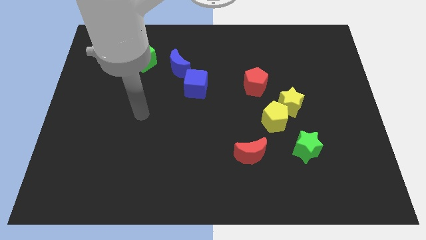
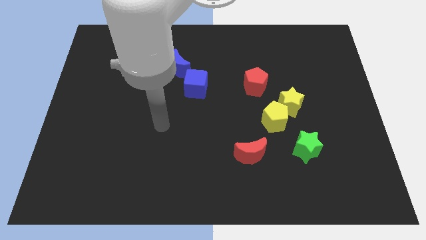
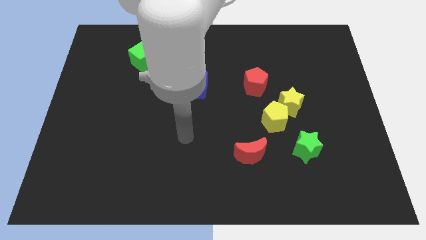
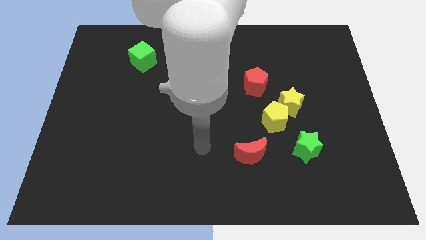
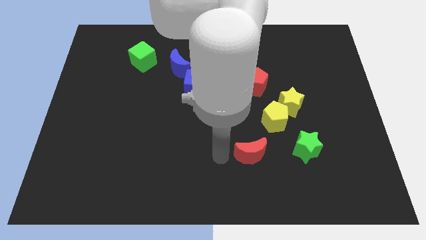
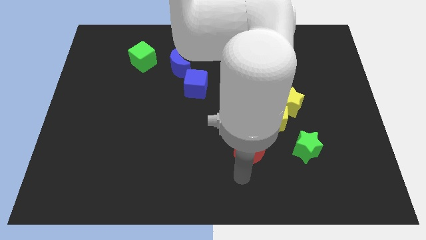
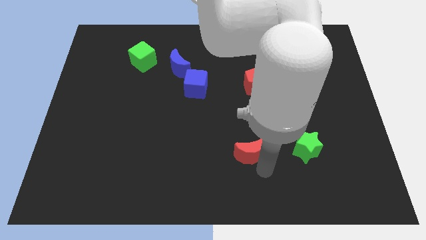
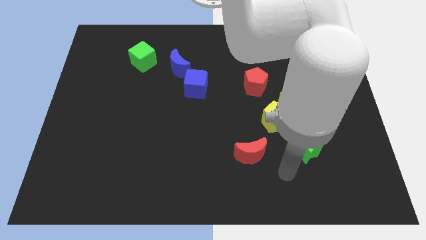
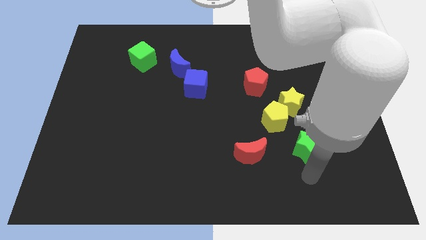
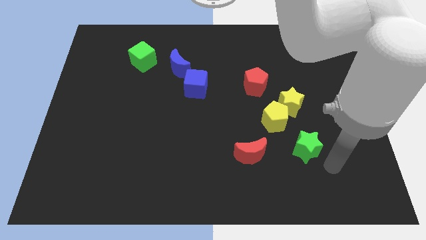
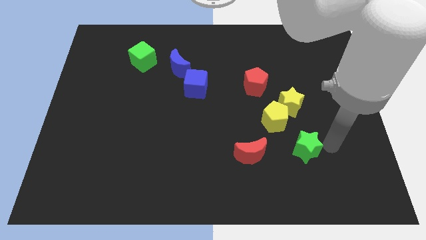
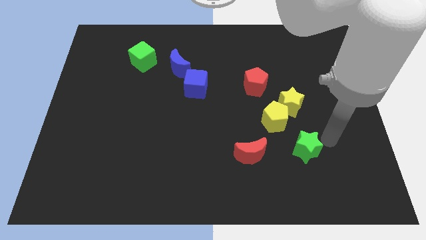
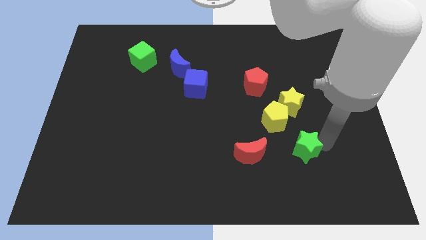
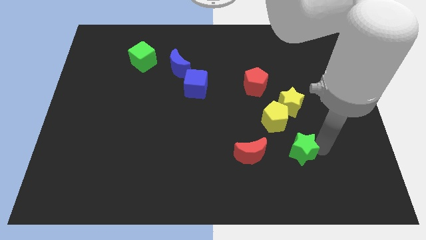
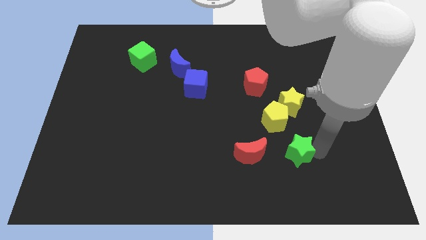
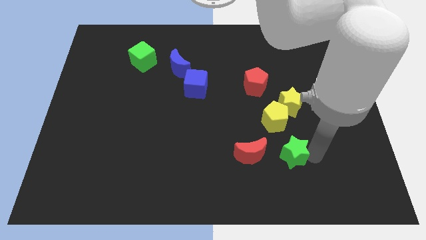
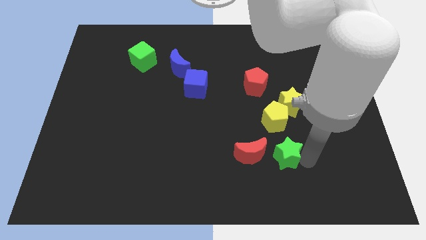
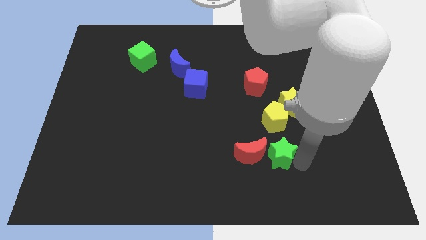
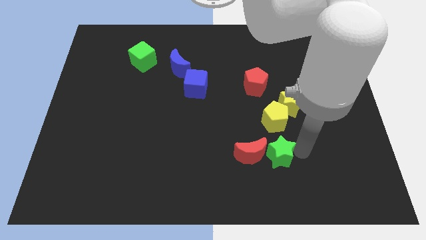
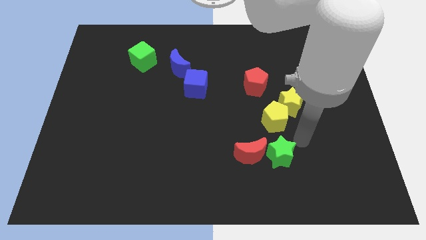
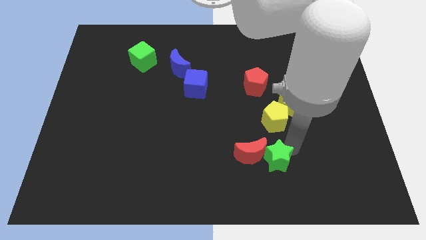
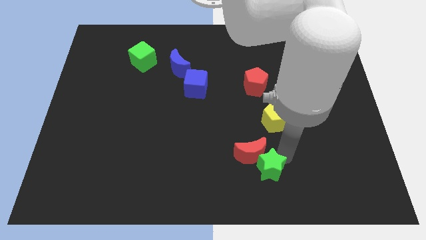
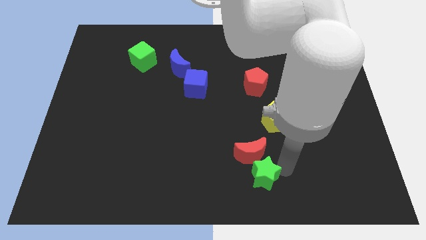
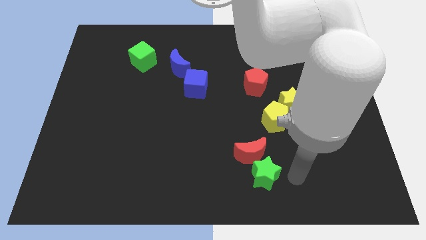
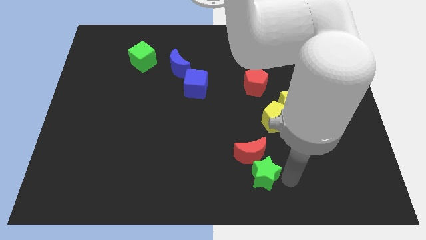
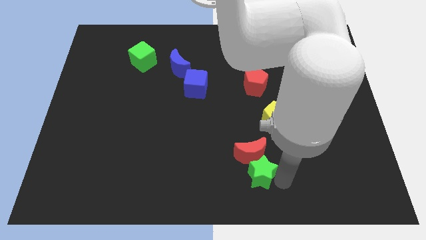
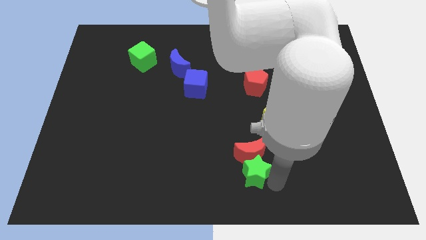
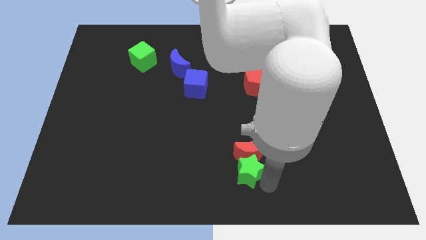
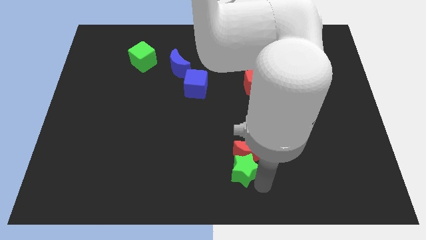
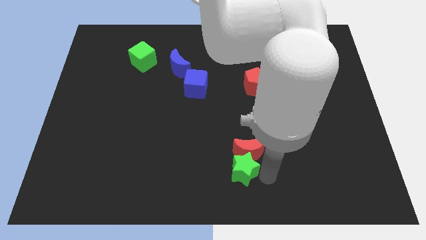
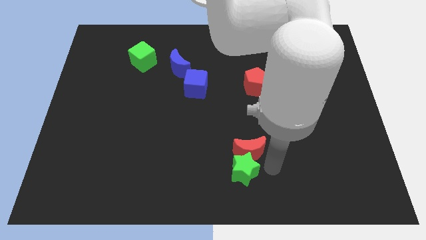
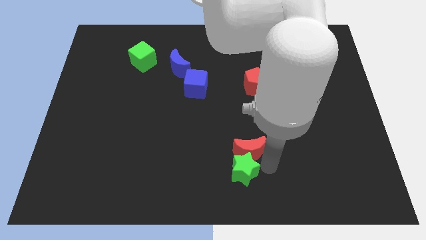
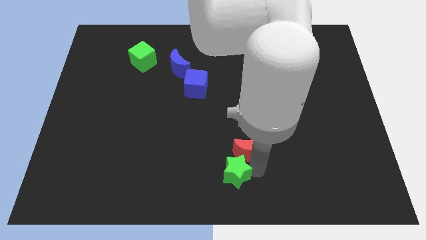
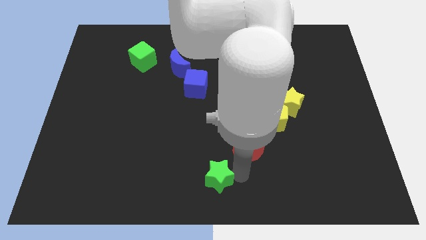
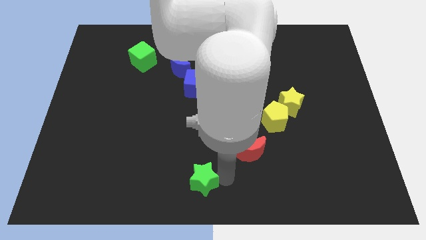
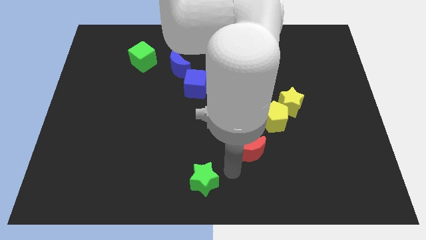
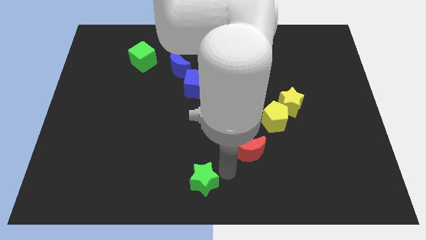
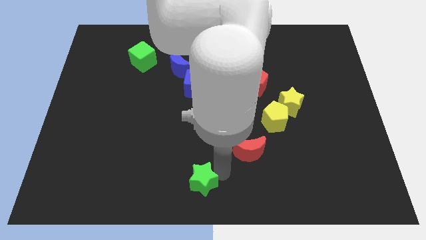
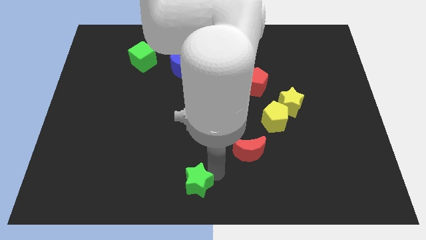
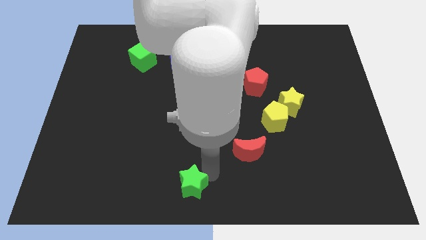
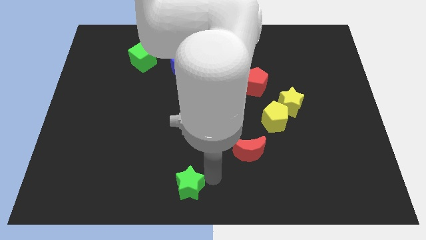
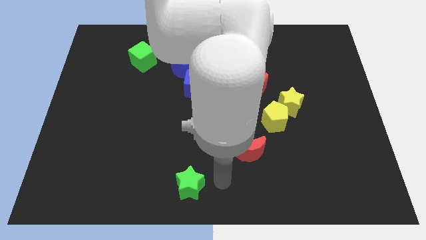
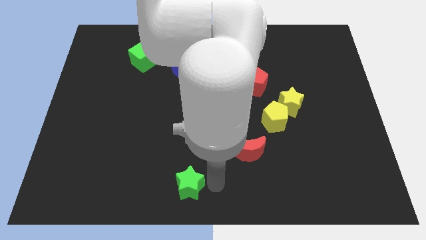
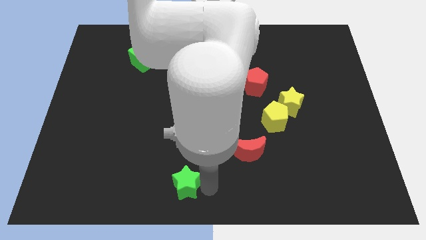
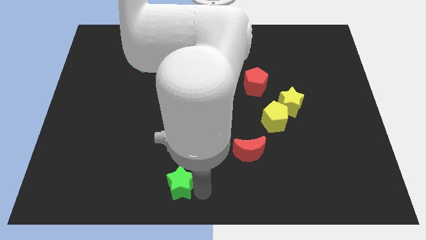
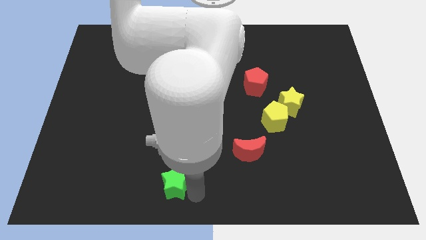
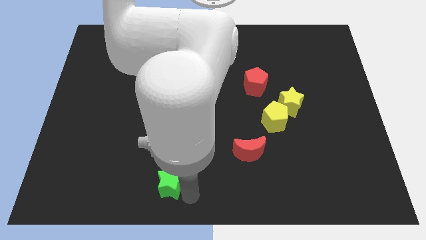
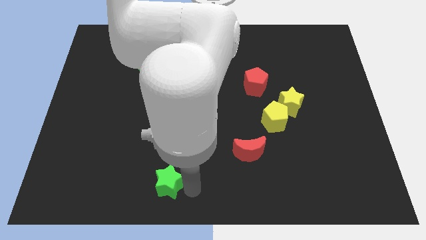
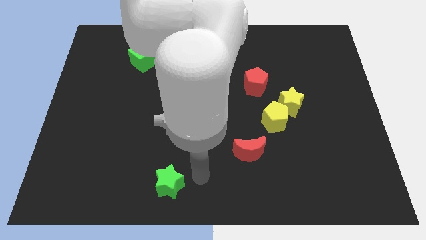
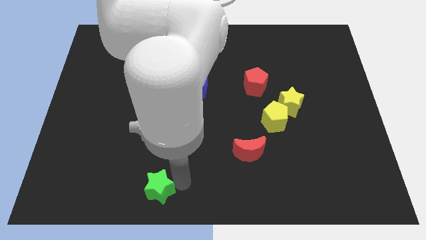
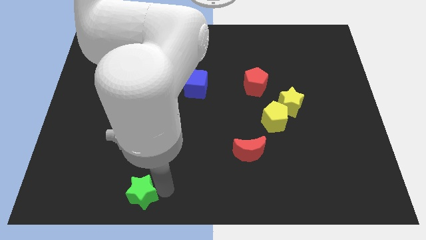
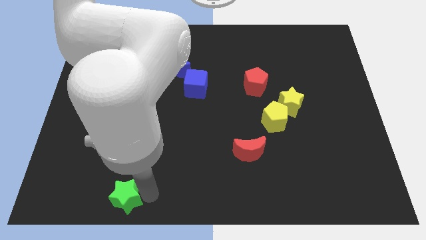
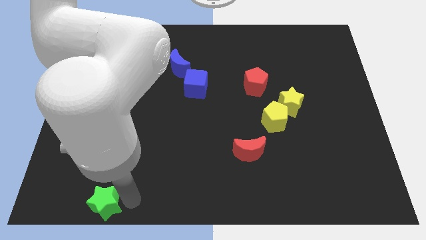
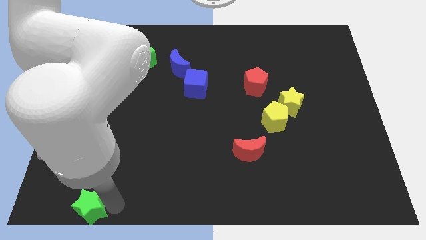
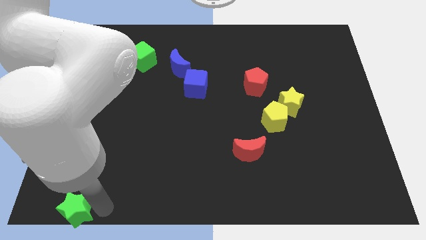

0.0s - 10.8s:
put the green star to the lower left corner

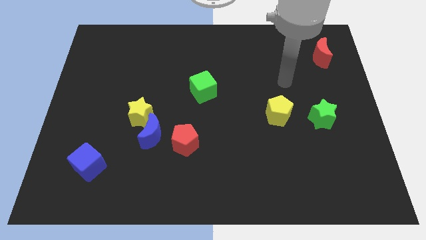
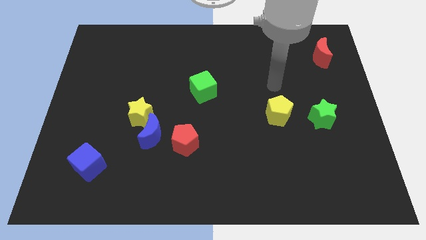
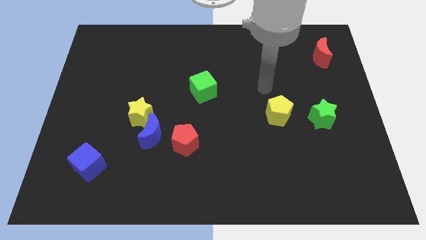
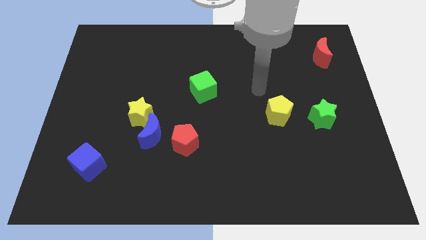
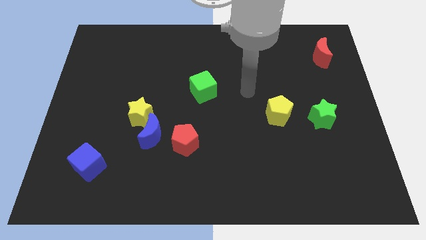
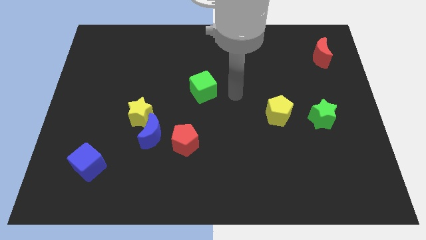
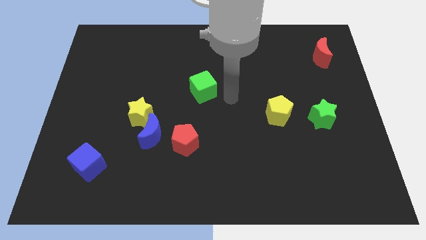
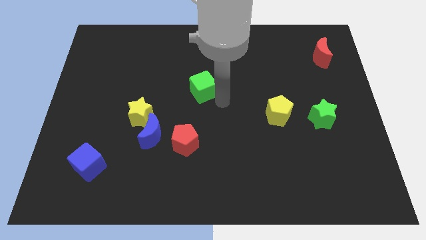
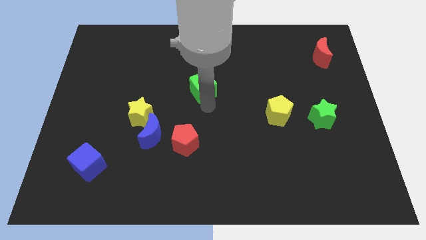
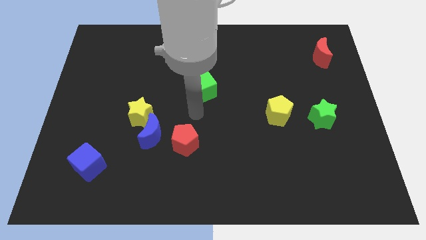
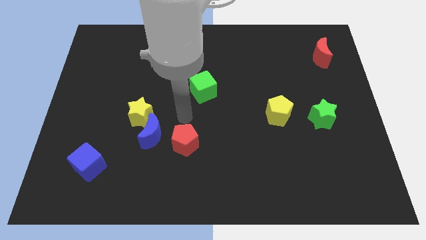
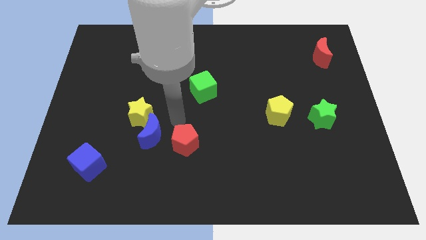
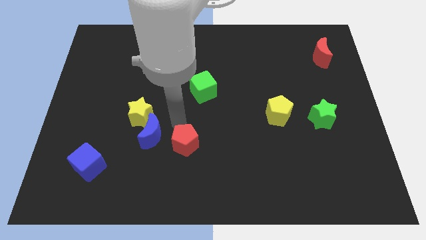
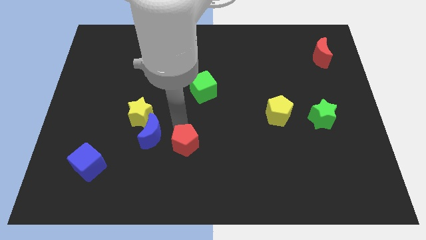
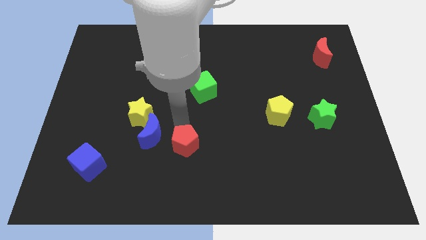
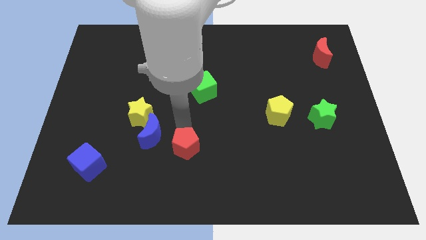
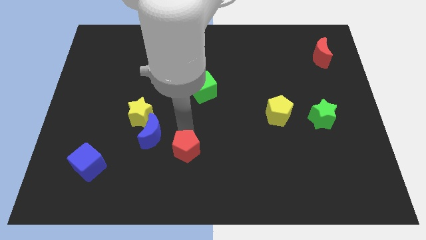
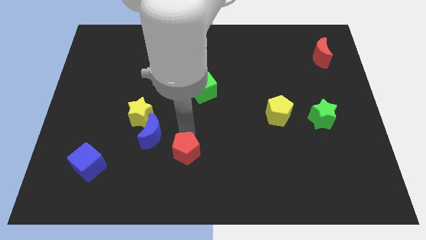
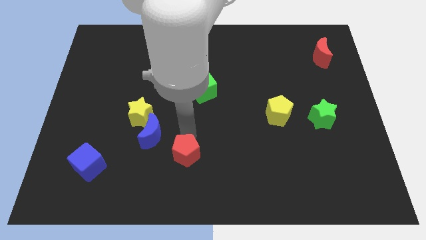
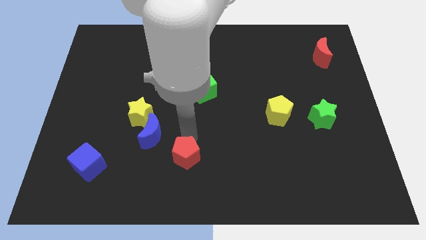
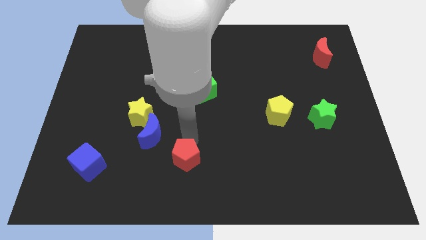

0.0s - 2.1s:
put the red pentagon to the bottom side
